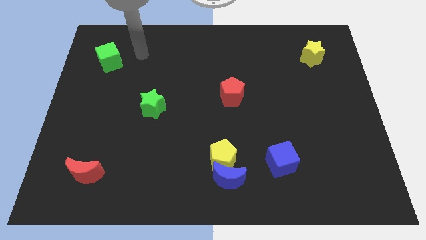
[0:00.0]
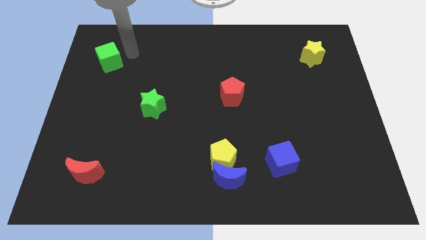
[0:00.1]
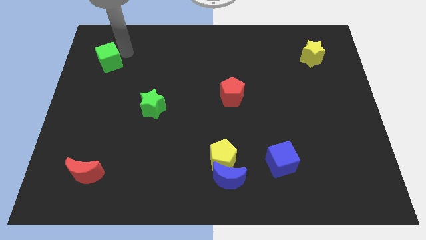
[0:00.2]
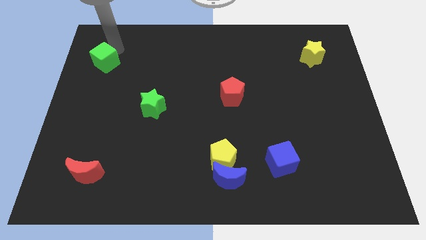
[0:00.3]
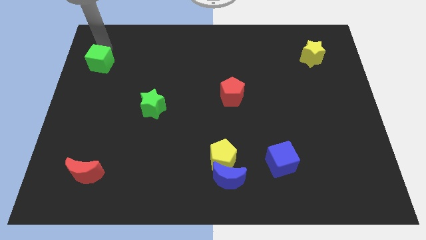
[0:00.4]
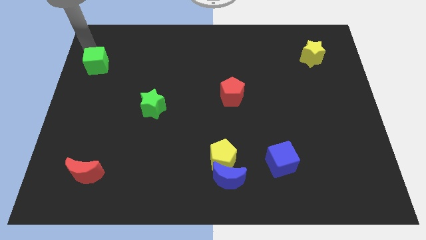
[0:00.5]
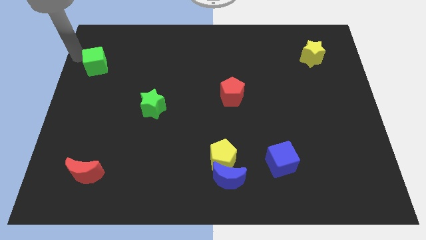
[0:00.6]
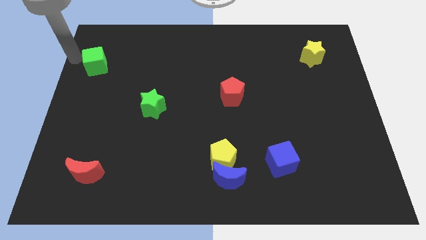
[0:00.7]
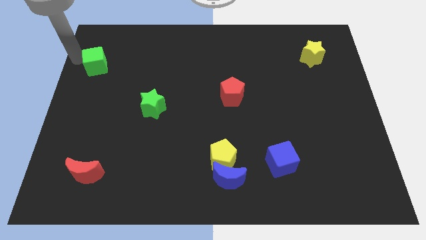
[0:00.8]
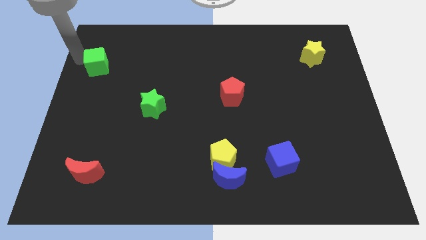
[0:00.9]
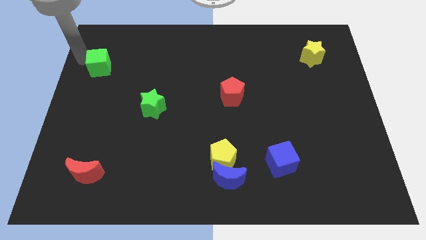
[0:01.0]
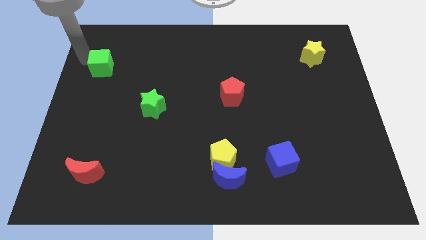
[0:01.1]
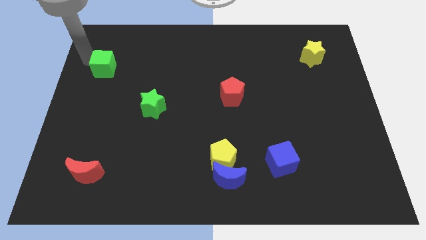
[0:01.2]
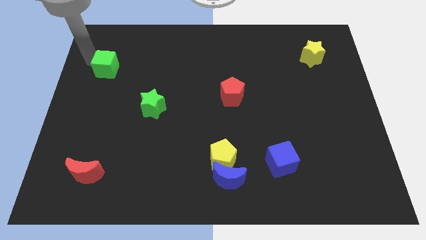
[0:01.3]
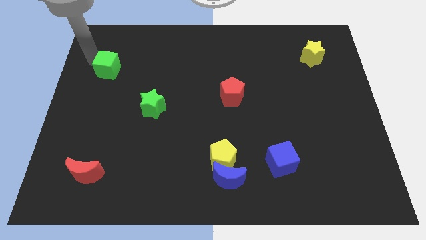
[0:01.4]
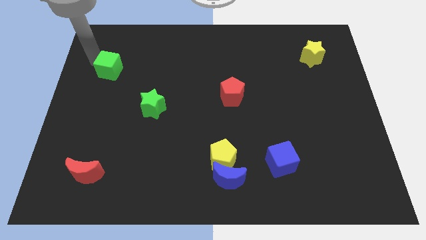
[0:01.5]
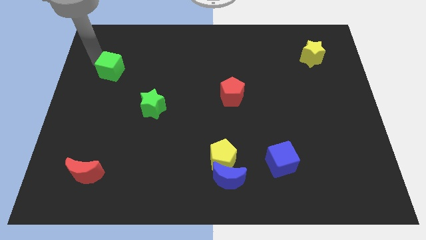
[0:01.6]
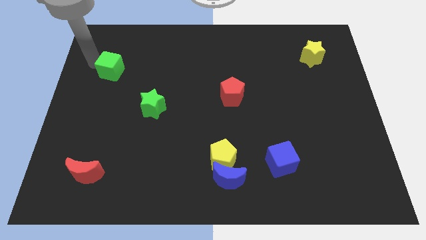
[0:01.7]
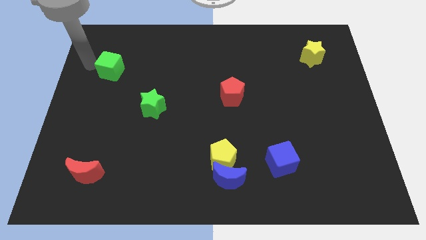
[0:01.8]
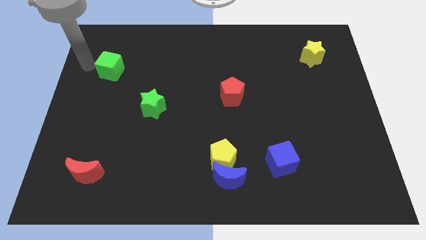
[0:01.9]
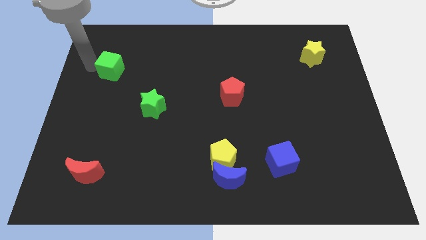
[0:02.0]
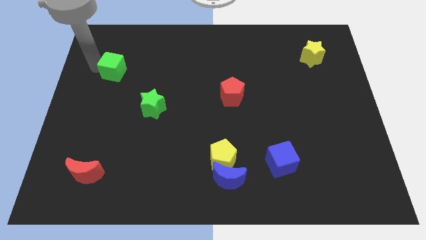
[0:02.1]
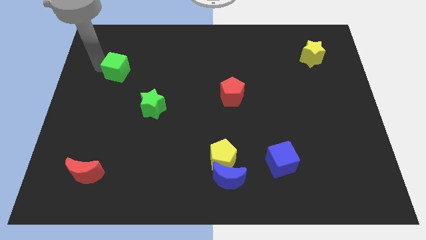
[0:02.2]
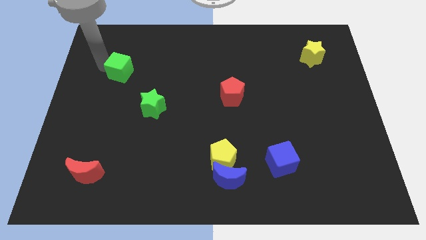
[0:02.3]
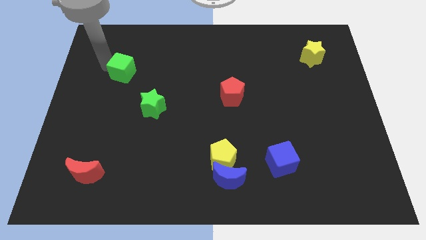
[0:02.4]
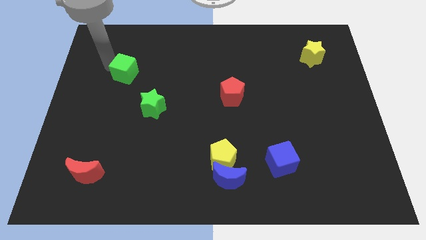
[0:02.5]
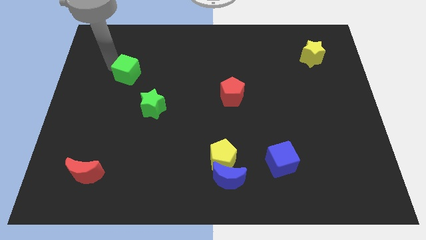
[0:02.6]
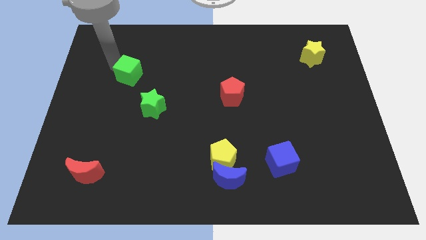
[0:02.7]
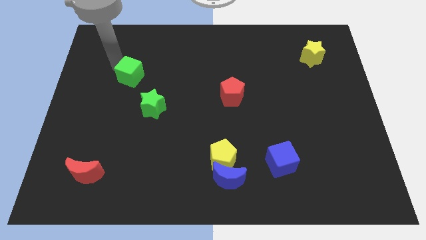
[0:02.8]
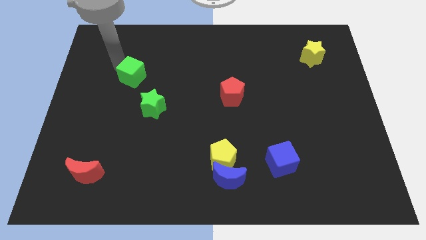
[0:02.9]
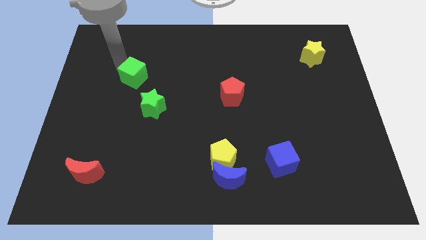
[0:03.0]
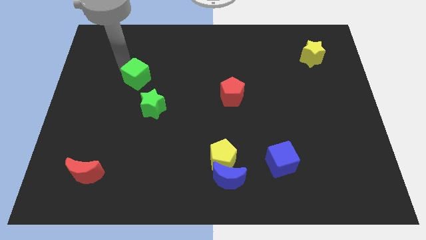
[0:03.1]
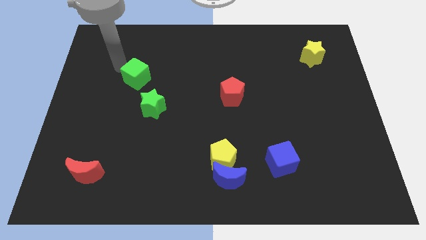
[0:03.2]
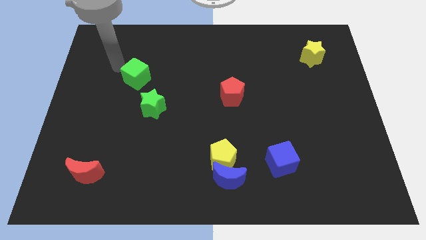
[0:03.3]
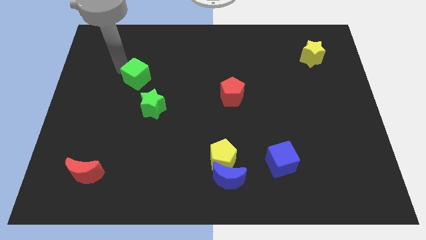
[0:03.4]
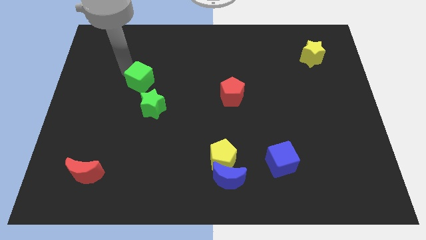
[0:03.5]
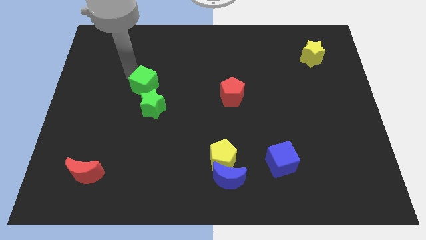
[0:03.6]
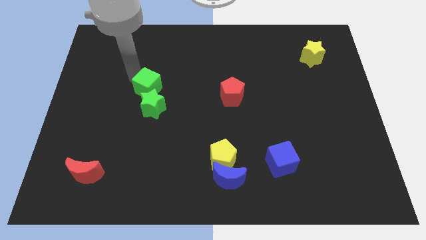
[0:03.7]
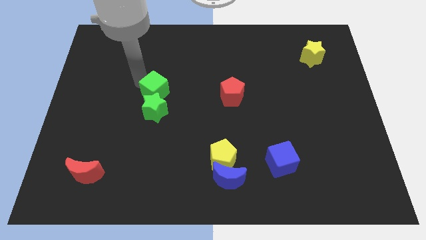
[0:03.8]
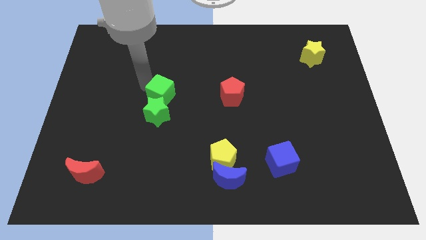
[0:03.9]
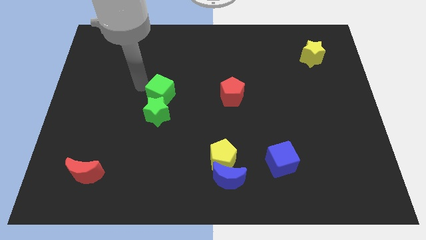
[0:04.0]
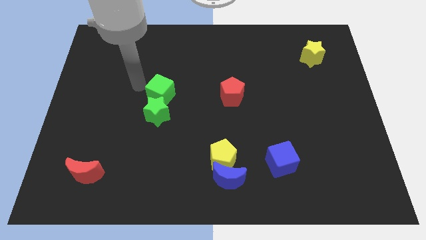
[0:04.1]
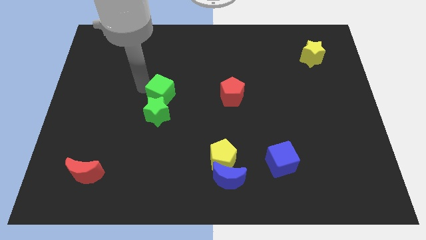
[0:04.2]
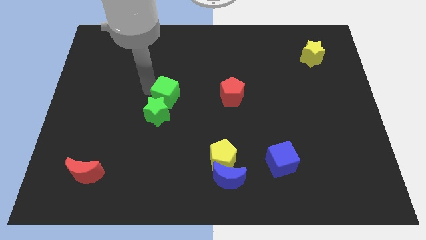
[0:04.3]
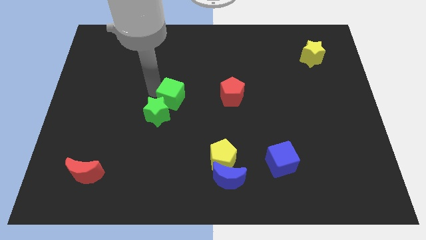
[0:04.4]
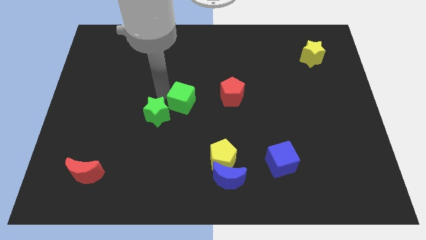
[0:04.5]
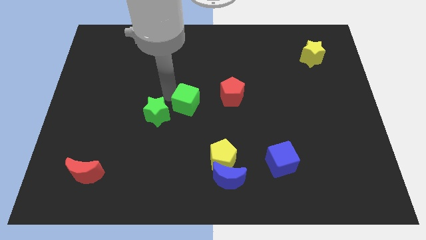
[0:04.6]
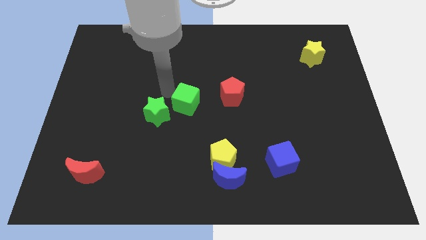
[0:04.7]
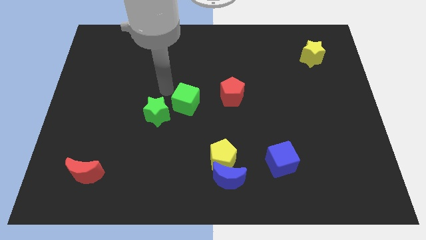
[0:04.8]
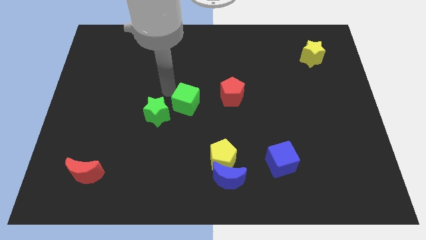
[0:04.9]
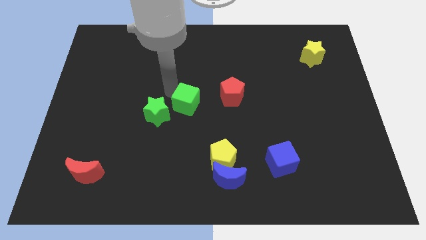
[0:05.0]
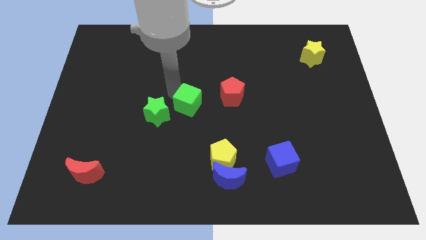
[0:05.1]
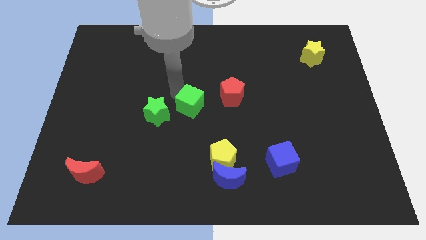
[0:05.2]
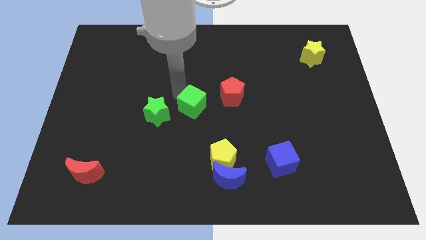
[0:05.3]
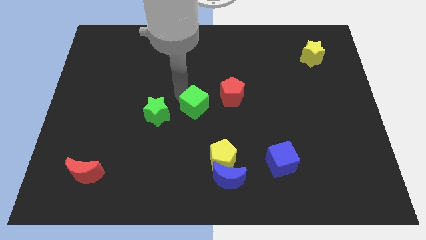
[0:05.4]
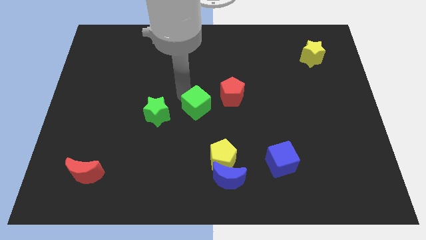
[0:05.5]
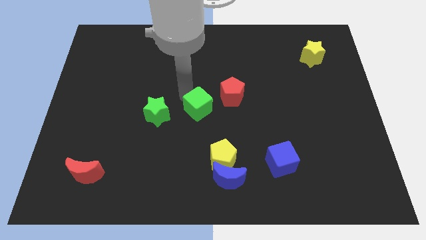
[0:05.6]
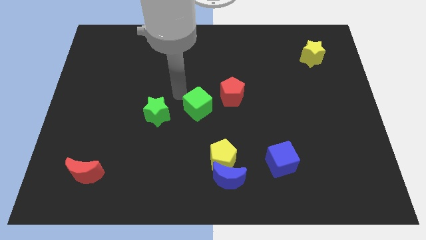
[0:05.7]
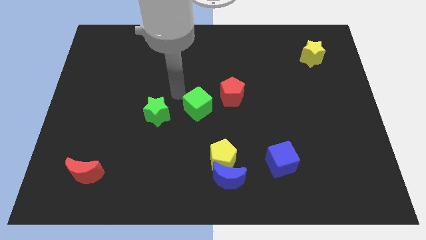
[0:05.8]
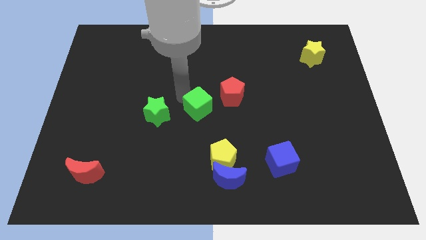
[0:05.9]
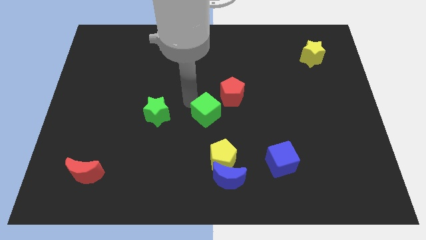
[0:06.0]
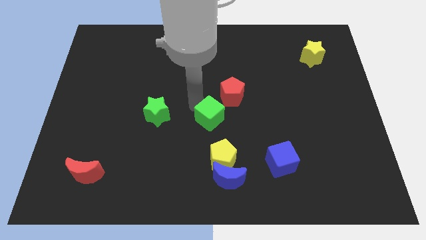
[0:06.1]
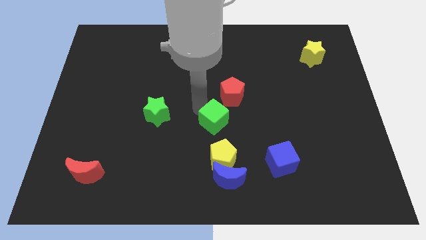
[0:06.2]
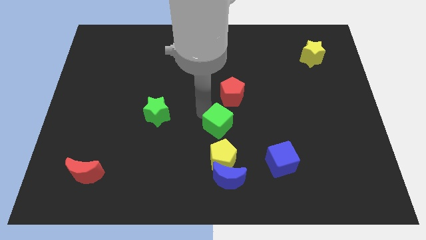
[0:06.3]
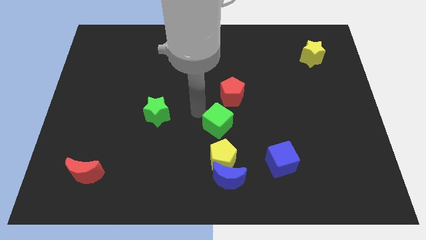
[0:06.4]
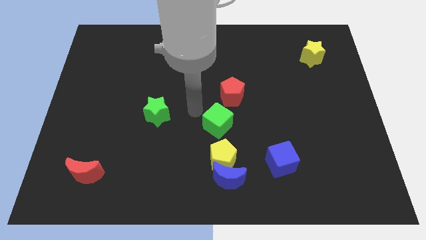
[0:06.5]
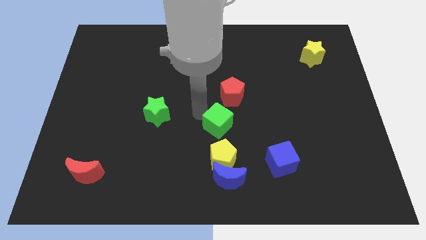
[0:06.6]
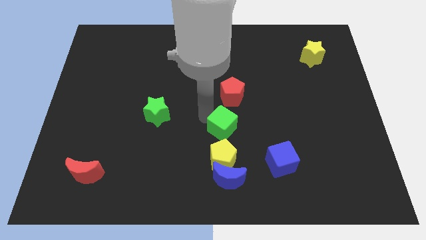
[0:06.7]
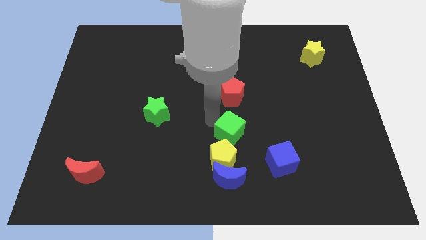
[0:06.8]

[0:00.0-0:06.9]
push the green cube to the top right of the yellow pentagon
